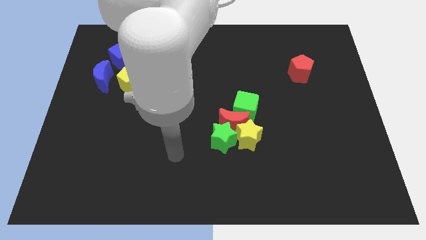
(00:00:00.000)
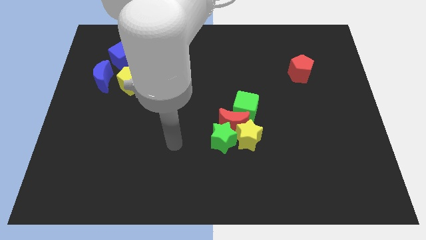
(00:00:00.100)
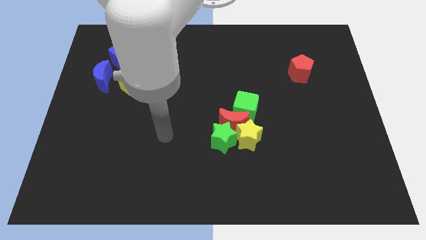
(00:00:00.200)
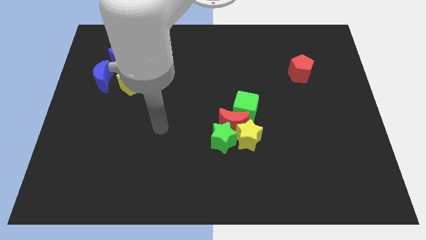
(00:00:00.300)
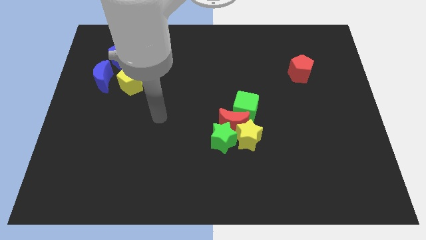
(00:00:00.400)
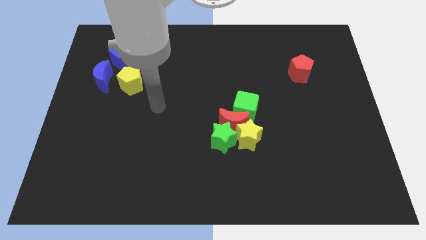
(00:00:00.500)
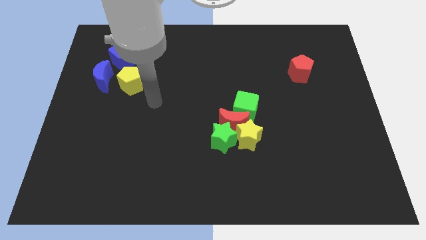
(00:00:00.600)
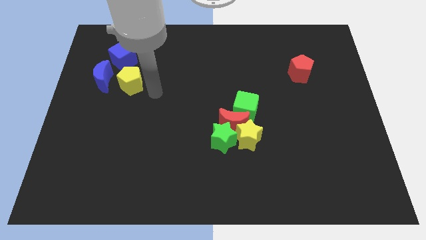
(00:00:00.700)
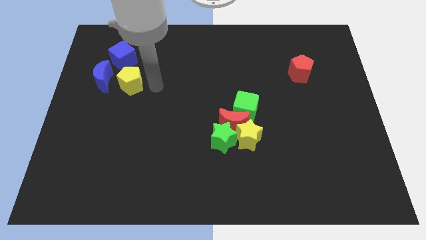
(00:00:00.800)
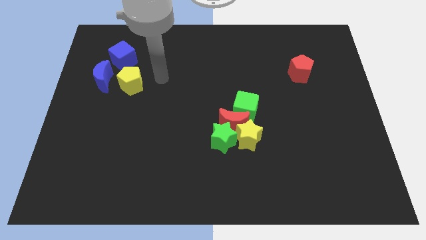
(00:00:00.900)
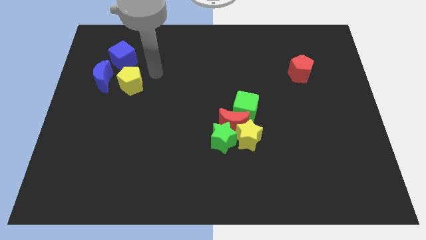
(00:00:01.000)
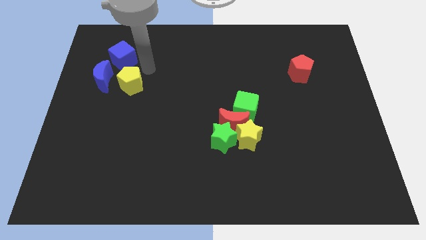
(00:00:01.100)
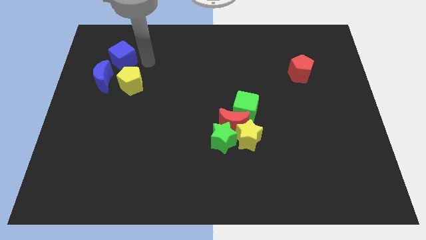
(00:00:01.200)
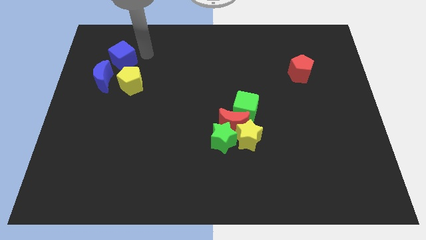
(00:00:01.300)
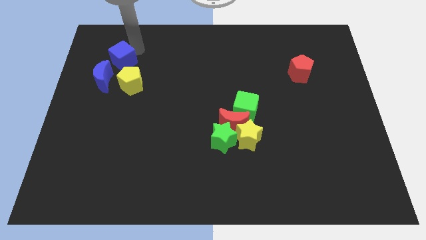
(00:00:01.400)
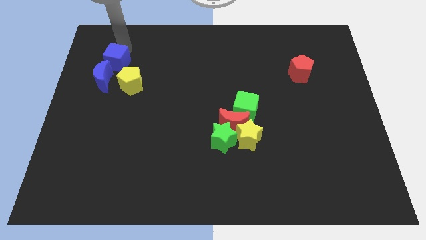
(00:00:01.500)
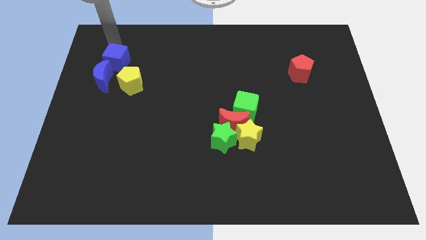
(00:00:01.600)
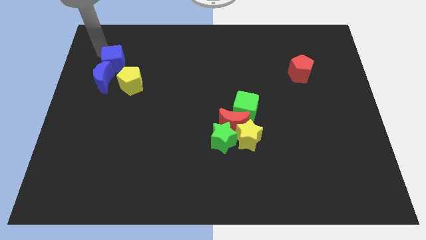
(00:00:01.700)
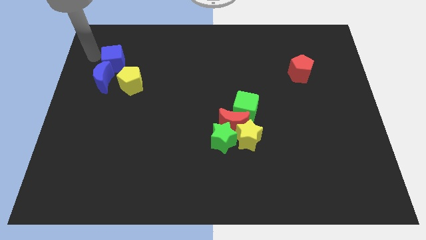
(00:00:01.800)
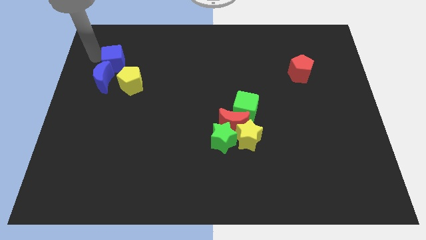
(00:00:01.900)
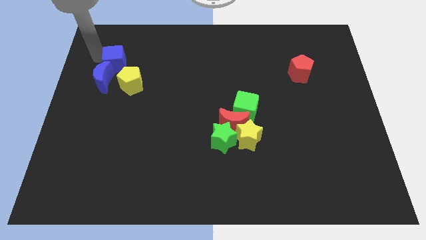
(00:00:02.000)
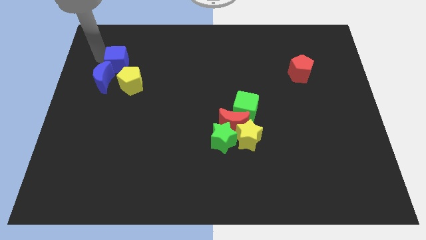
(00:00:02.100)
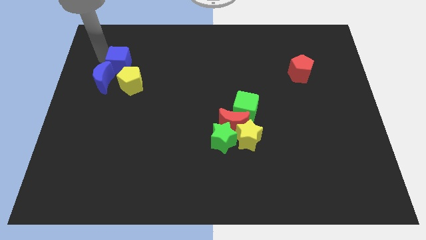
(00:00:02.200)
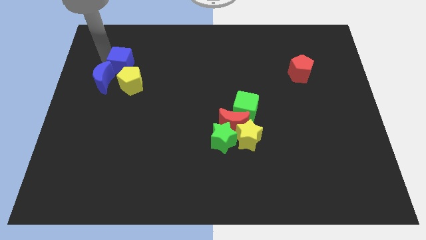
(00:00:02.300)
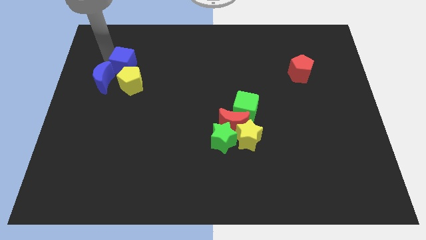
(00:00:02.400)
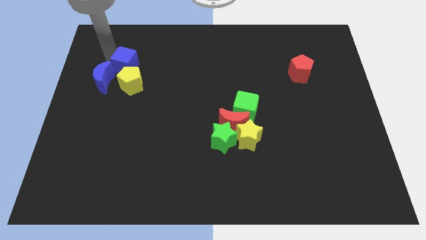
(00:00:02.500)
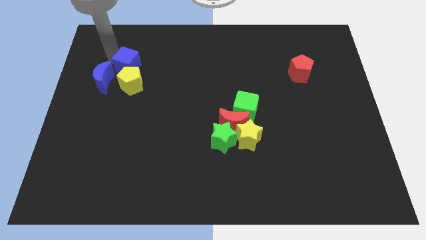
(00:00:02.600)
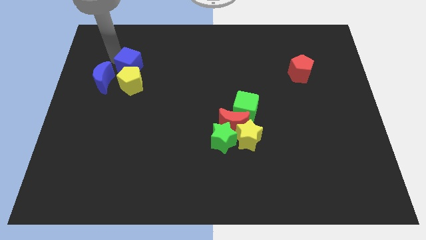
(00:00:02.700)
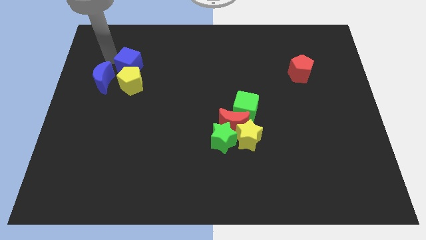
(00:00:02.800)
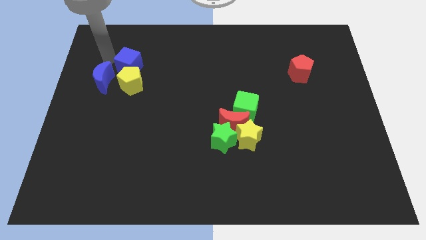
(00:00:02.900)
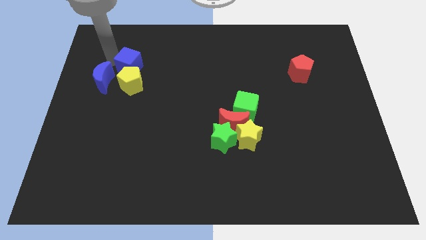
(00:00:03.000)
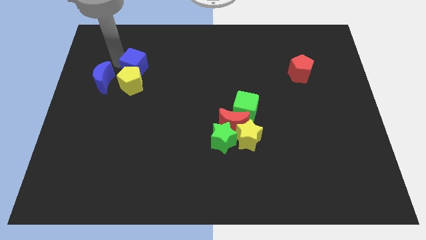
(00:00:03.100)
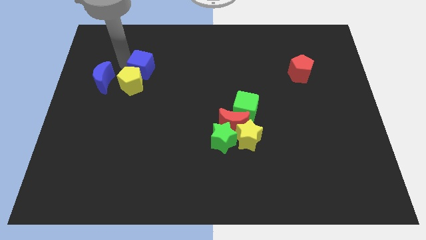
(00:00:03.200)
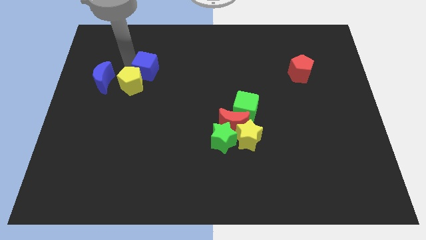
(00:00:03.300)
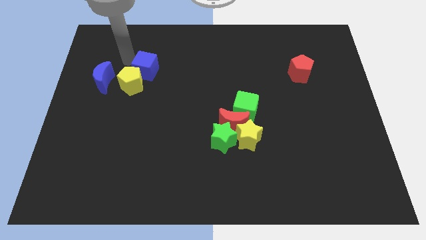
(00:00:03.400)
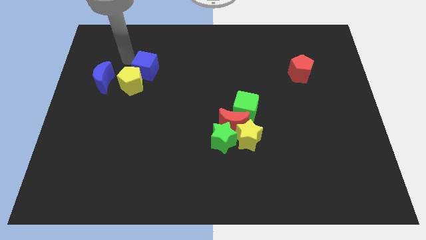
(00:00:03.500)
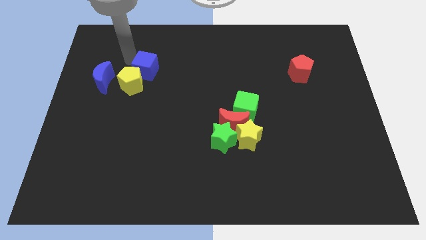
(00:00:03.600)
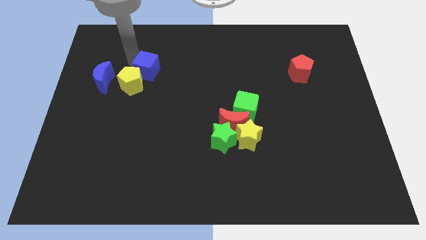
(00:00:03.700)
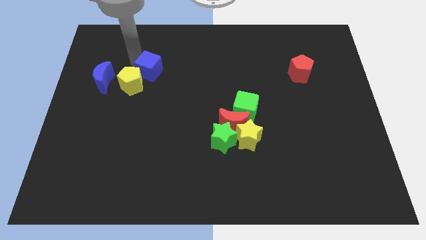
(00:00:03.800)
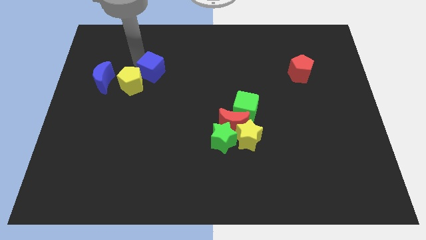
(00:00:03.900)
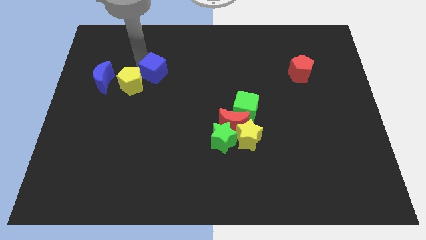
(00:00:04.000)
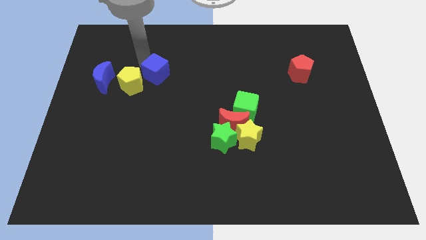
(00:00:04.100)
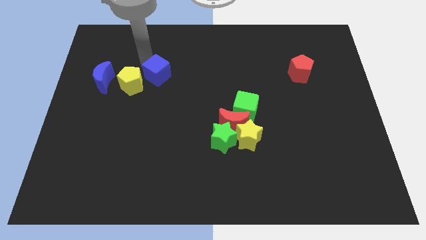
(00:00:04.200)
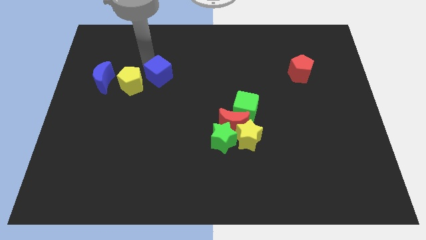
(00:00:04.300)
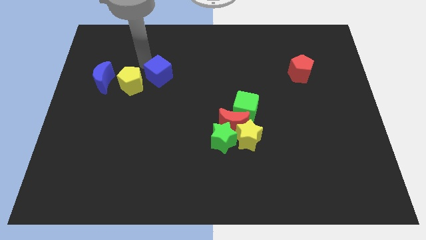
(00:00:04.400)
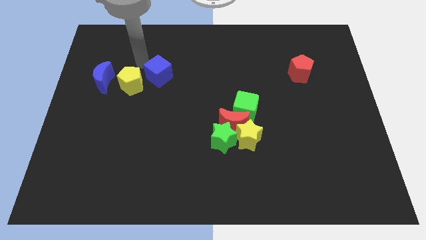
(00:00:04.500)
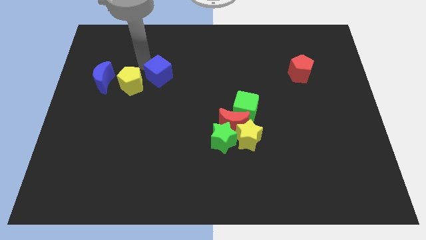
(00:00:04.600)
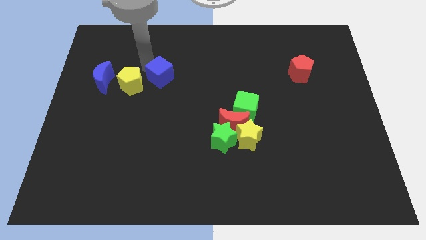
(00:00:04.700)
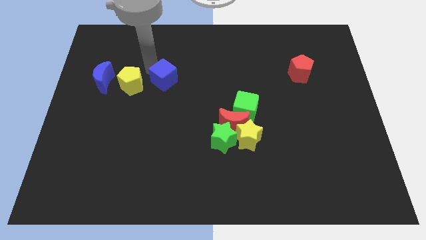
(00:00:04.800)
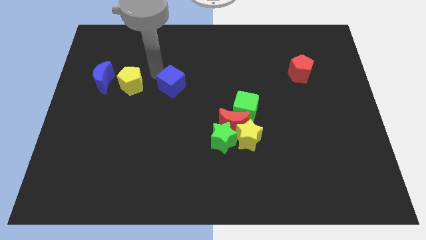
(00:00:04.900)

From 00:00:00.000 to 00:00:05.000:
move the blue cube to the center

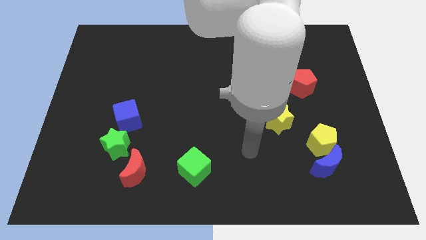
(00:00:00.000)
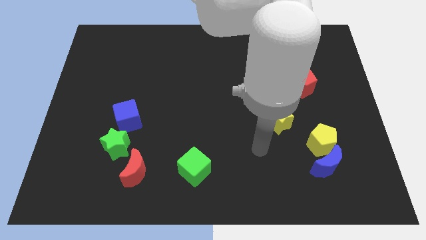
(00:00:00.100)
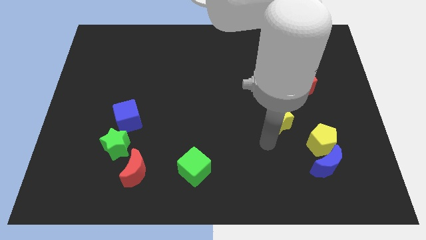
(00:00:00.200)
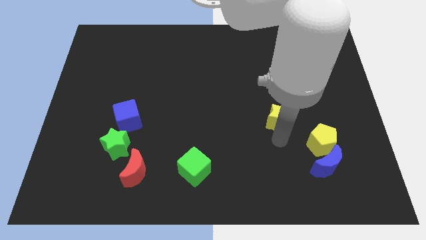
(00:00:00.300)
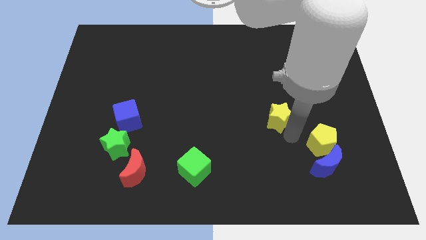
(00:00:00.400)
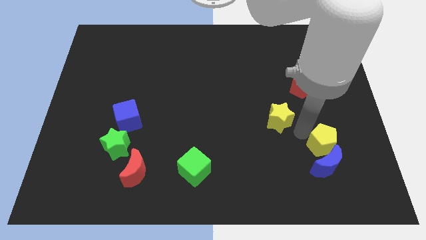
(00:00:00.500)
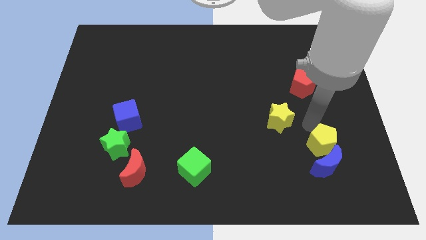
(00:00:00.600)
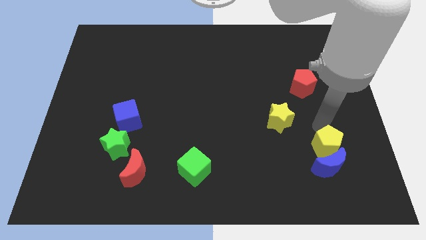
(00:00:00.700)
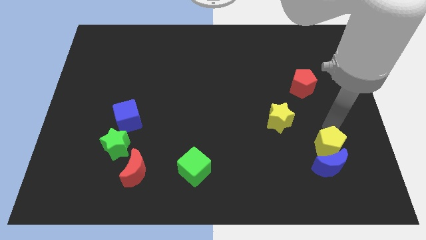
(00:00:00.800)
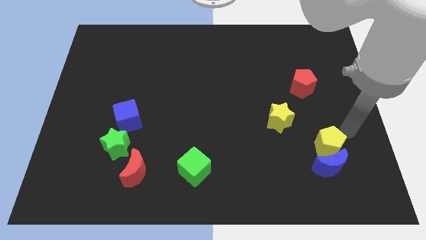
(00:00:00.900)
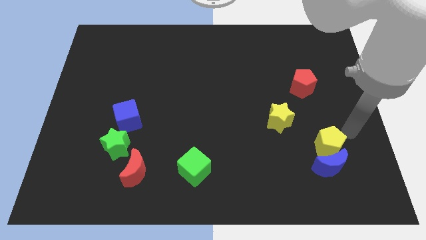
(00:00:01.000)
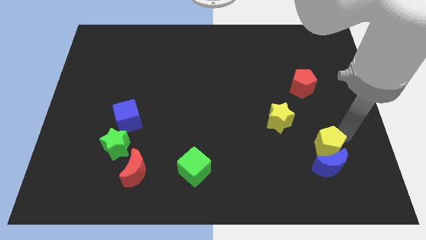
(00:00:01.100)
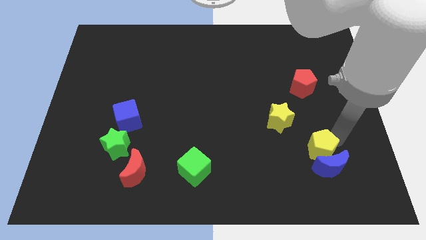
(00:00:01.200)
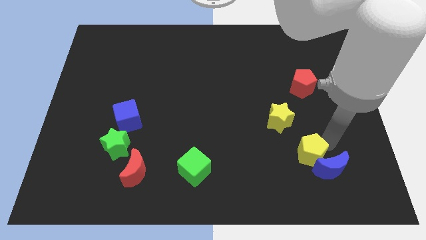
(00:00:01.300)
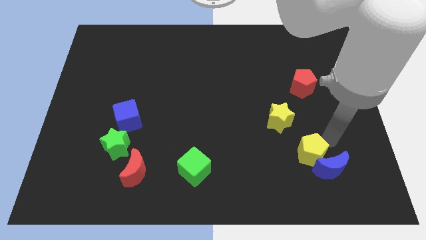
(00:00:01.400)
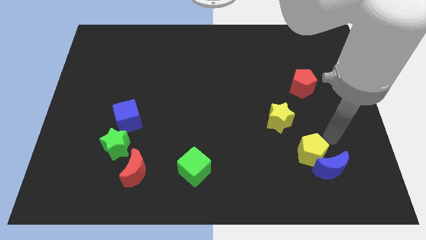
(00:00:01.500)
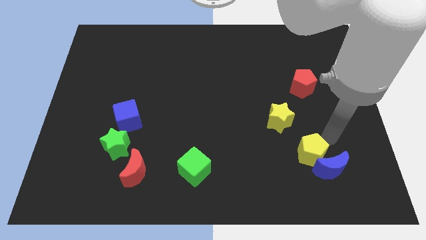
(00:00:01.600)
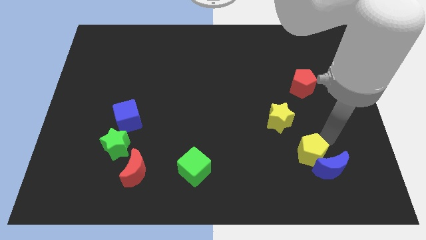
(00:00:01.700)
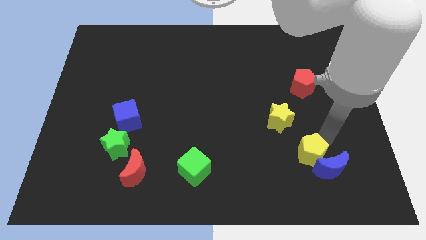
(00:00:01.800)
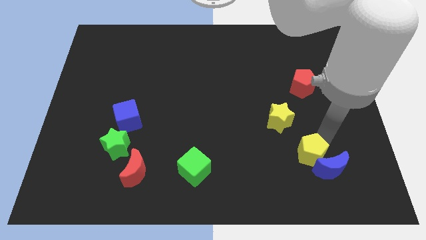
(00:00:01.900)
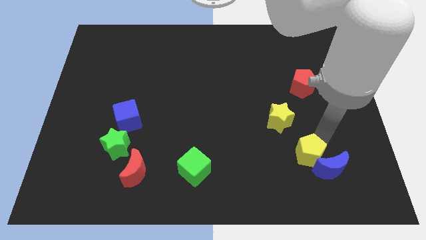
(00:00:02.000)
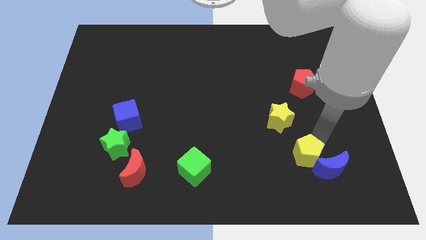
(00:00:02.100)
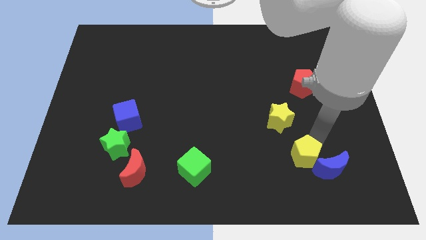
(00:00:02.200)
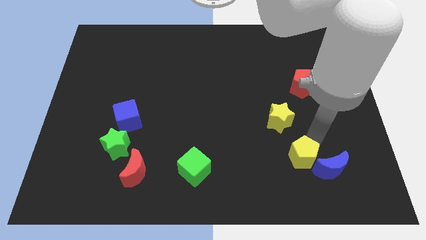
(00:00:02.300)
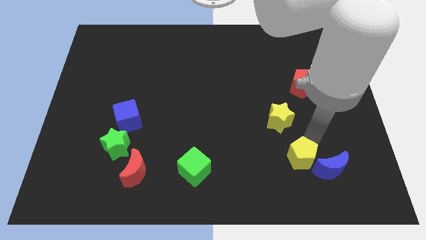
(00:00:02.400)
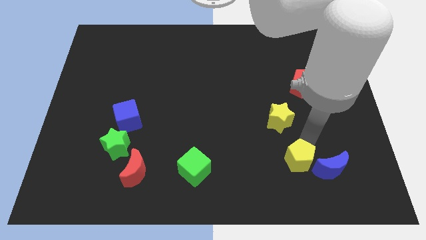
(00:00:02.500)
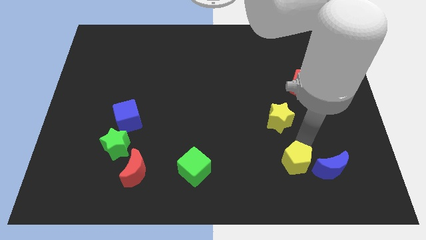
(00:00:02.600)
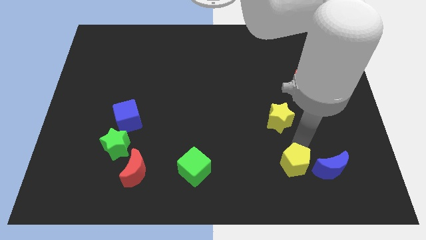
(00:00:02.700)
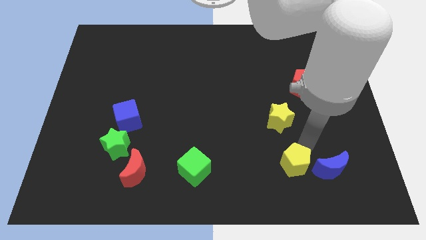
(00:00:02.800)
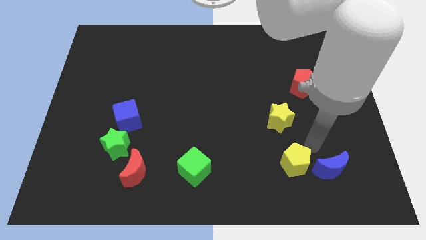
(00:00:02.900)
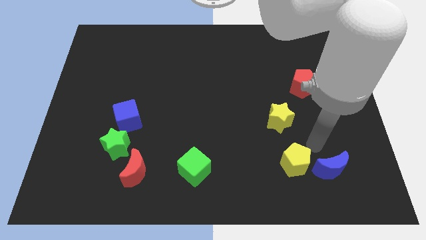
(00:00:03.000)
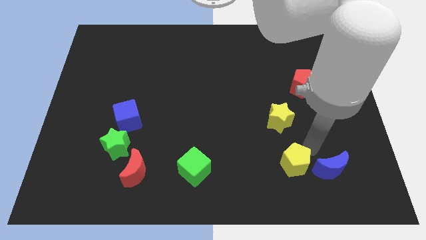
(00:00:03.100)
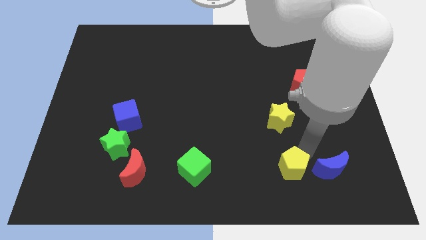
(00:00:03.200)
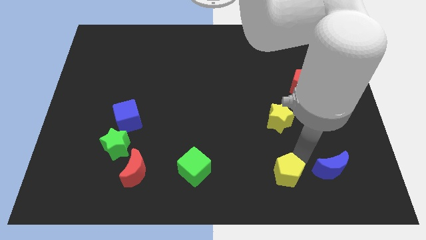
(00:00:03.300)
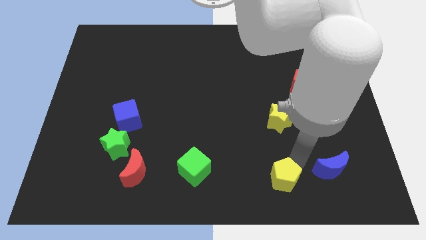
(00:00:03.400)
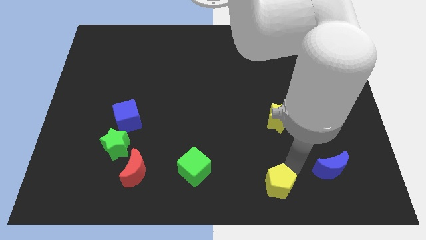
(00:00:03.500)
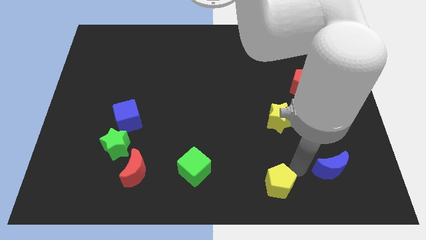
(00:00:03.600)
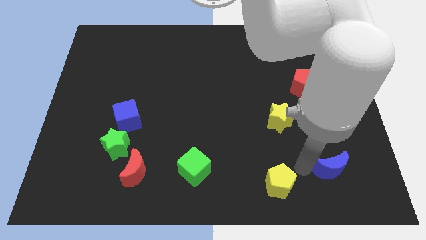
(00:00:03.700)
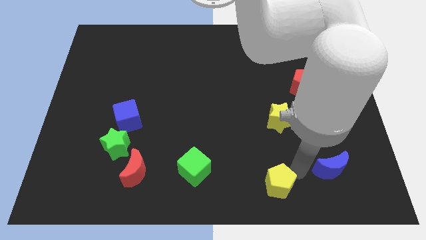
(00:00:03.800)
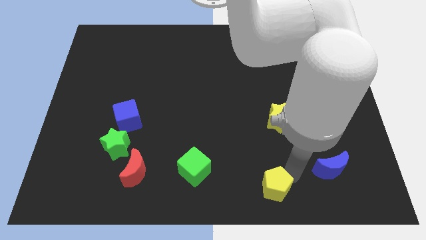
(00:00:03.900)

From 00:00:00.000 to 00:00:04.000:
push the yellow pentagon to the bottom
